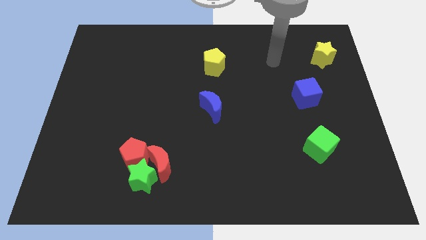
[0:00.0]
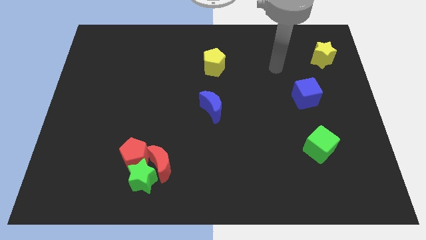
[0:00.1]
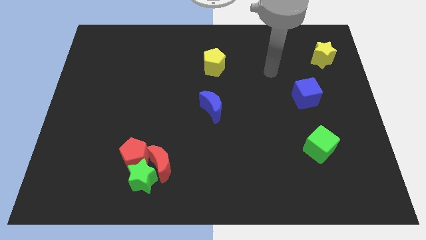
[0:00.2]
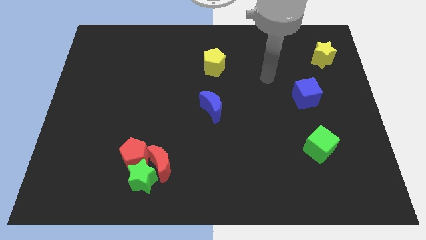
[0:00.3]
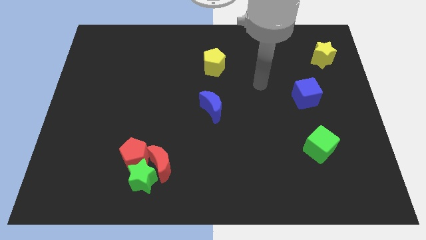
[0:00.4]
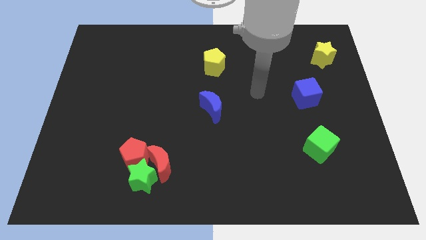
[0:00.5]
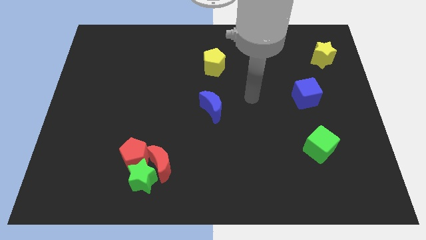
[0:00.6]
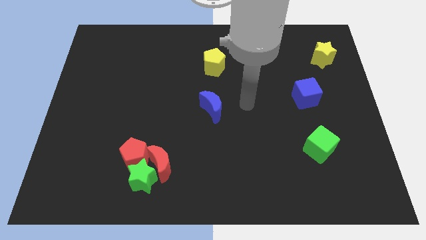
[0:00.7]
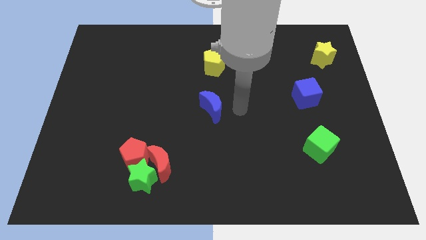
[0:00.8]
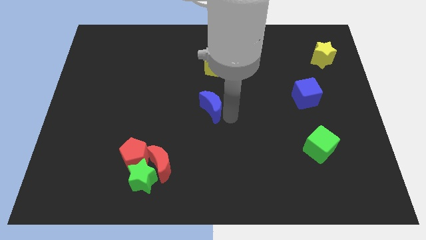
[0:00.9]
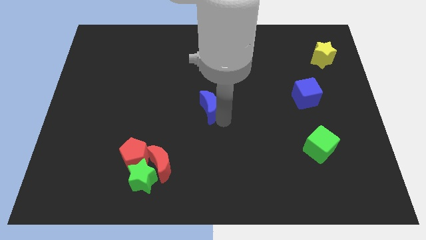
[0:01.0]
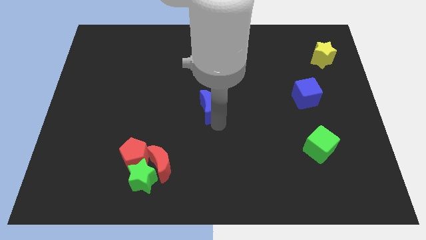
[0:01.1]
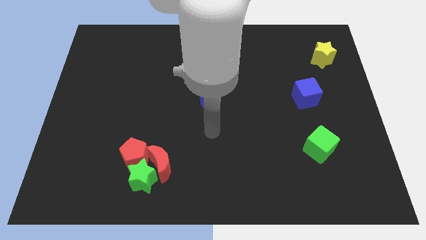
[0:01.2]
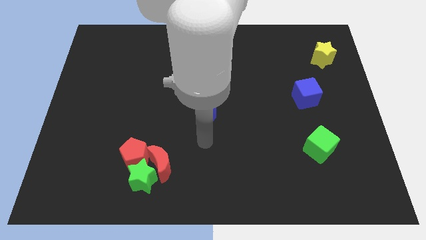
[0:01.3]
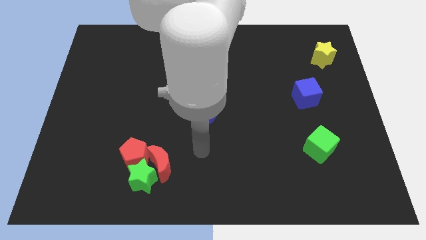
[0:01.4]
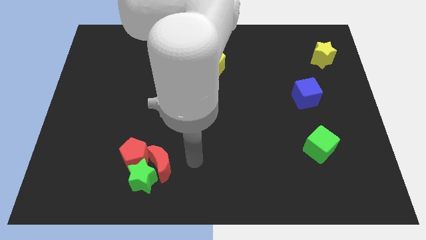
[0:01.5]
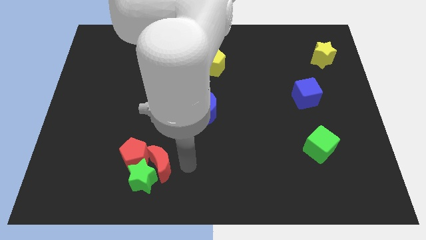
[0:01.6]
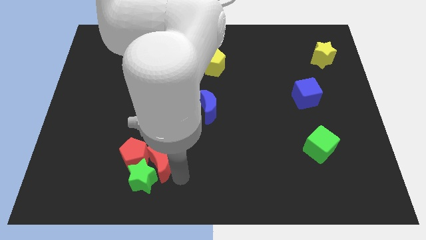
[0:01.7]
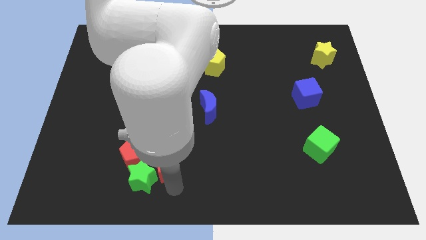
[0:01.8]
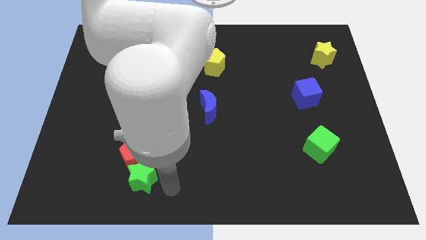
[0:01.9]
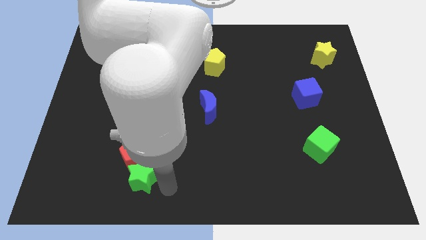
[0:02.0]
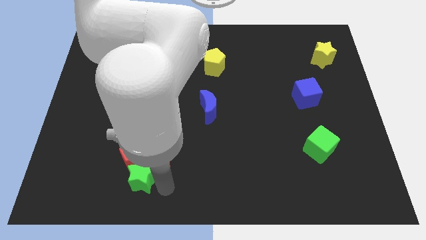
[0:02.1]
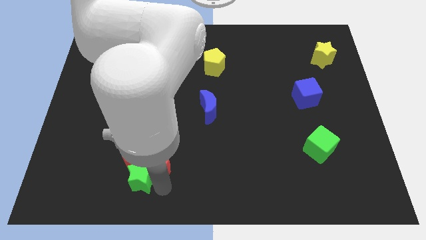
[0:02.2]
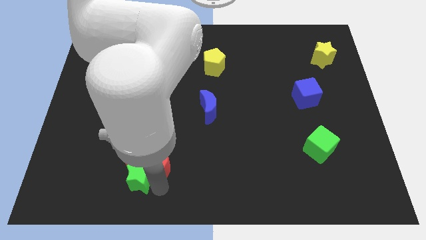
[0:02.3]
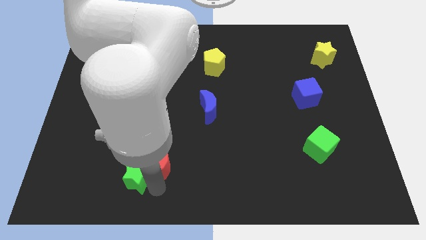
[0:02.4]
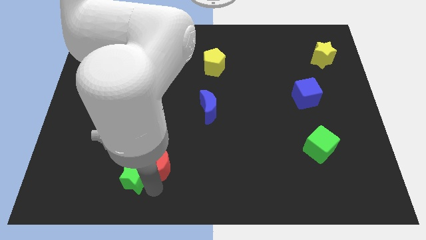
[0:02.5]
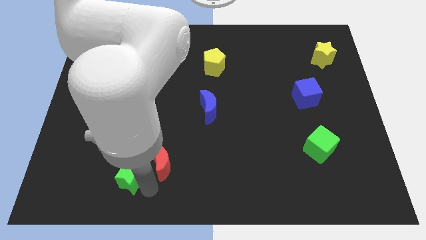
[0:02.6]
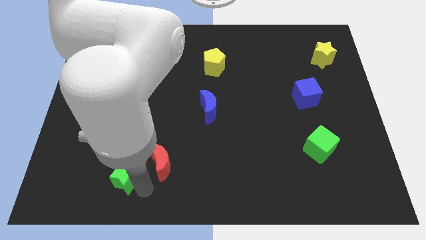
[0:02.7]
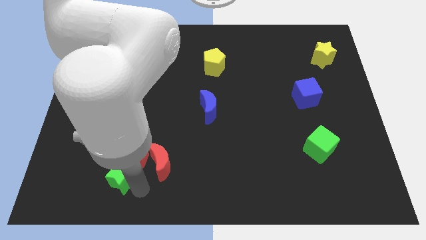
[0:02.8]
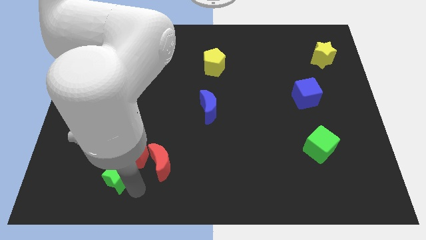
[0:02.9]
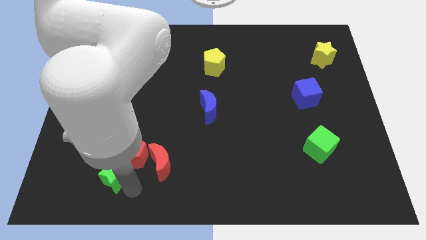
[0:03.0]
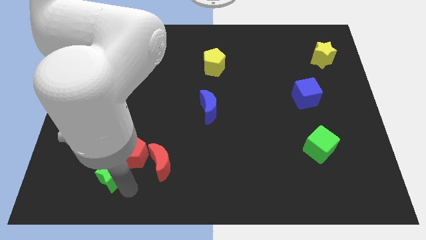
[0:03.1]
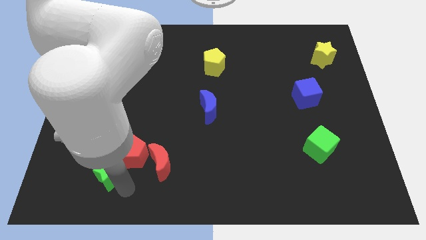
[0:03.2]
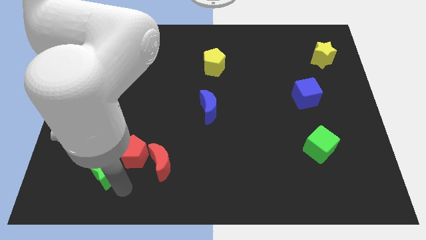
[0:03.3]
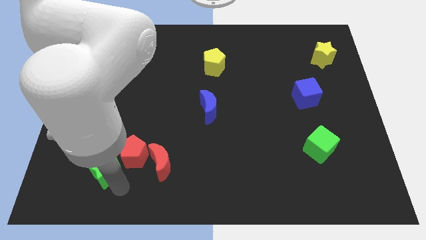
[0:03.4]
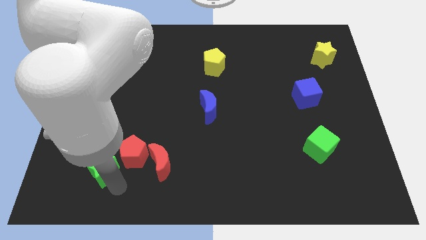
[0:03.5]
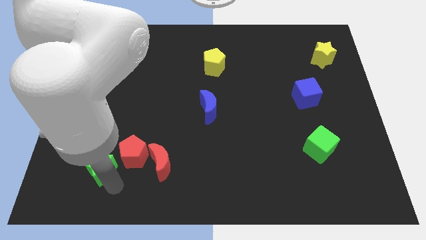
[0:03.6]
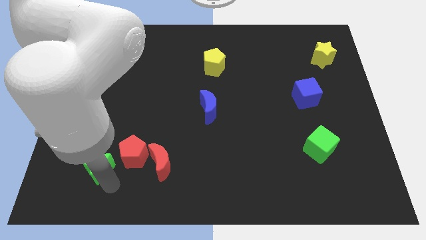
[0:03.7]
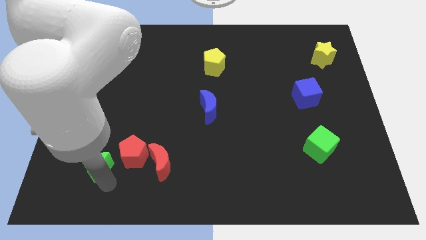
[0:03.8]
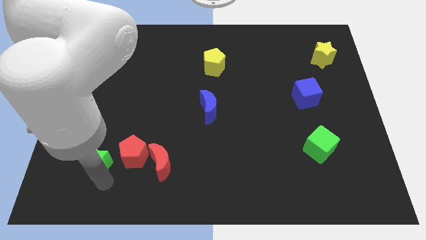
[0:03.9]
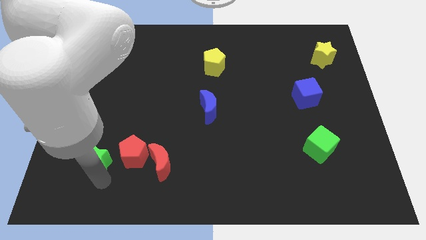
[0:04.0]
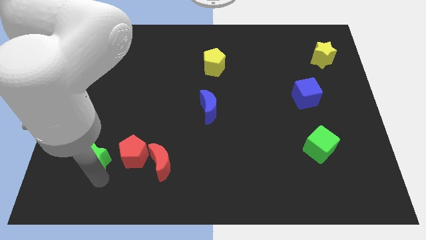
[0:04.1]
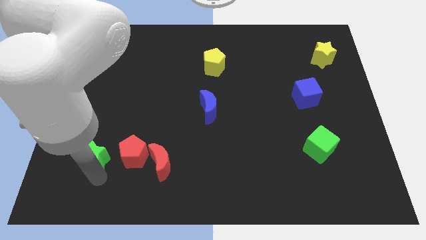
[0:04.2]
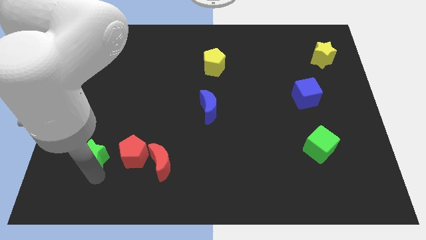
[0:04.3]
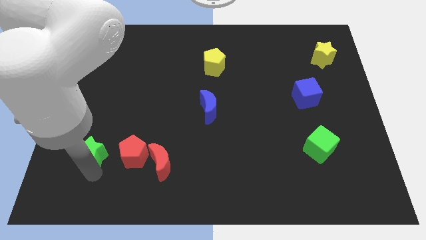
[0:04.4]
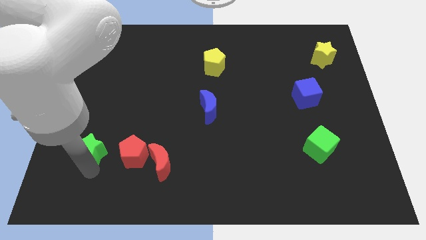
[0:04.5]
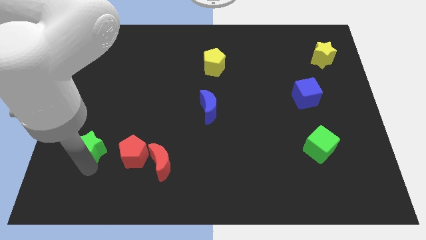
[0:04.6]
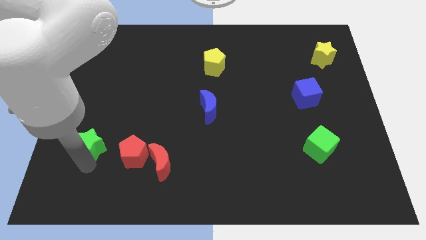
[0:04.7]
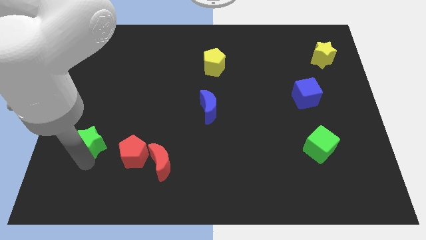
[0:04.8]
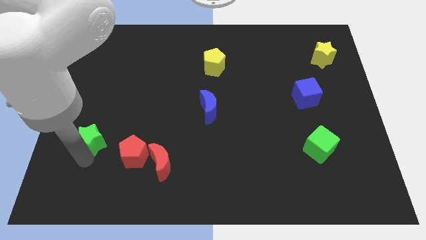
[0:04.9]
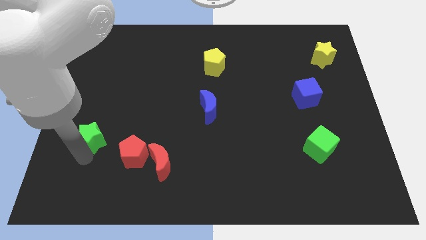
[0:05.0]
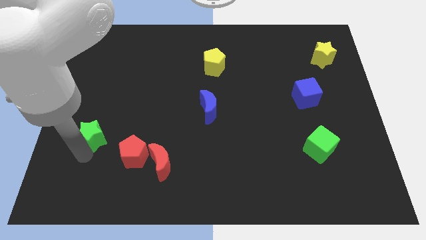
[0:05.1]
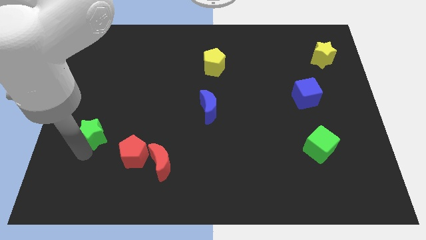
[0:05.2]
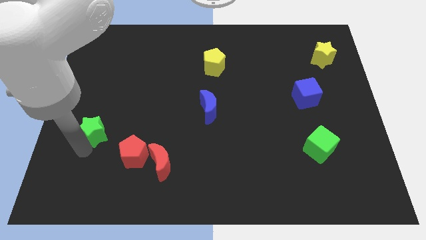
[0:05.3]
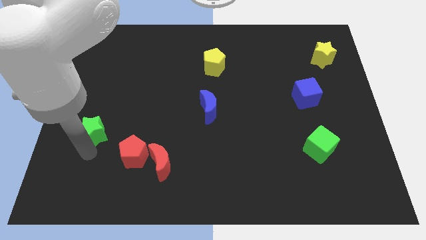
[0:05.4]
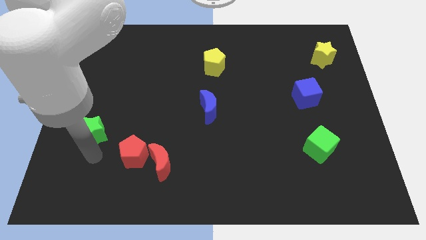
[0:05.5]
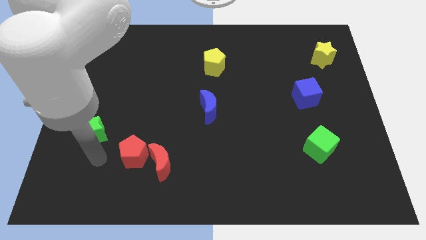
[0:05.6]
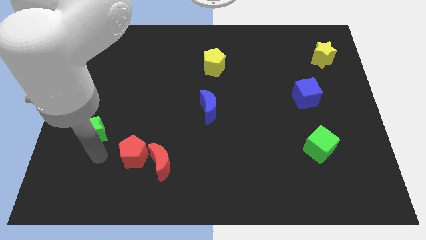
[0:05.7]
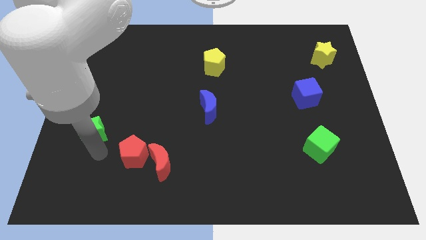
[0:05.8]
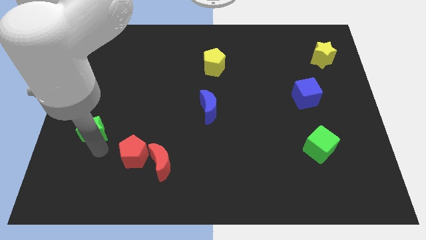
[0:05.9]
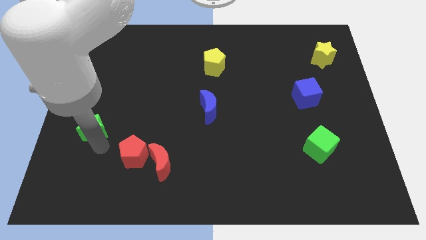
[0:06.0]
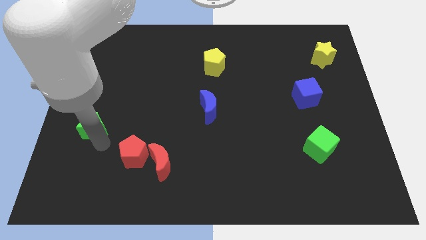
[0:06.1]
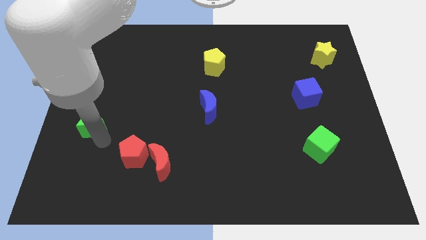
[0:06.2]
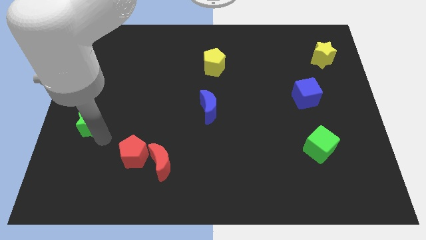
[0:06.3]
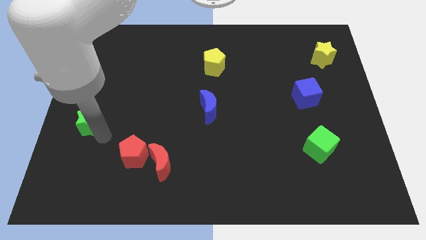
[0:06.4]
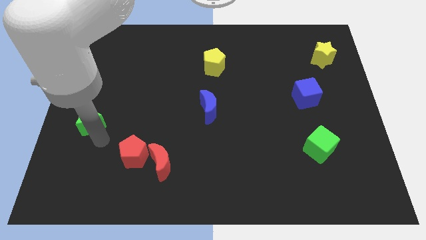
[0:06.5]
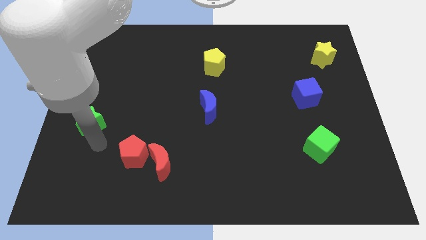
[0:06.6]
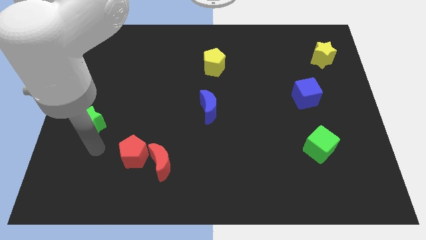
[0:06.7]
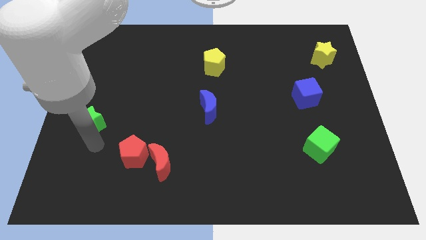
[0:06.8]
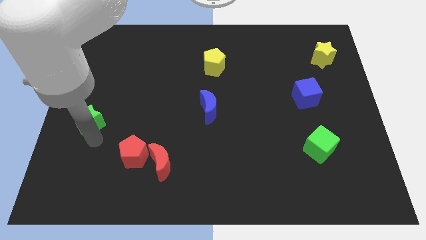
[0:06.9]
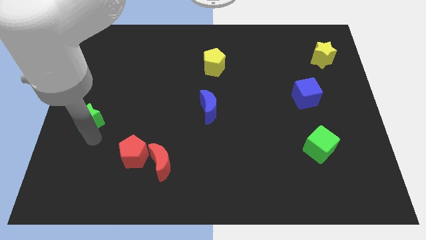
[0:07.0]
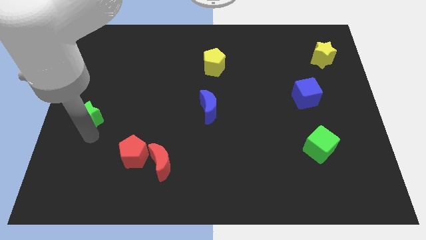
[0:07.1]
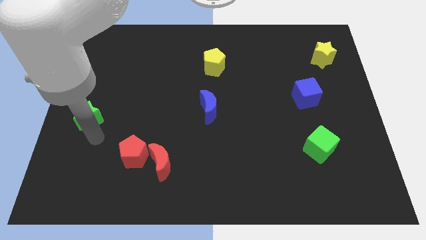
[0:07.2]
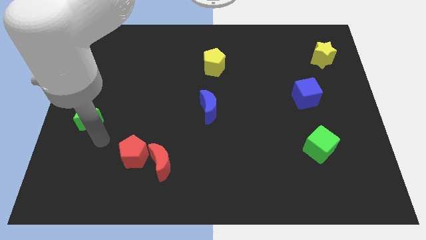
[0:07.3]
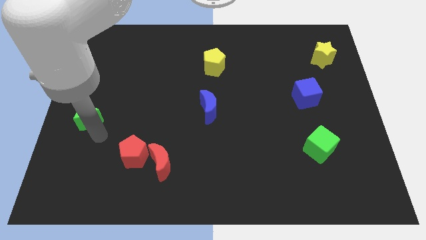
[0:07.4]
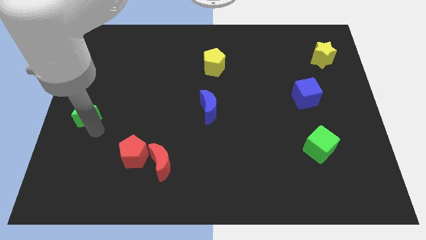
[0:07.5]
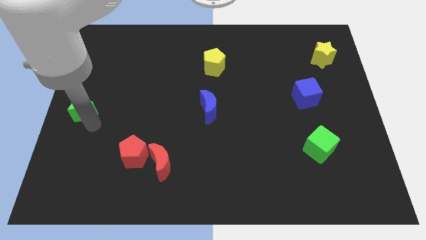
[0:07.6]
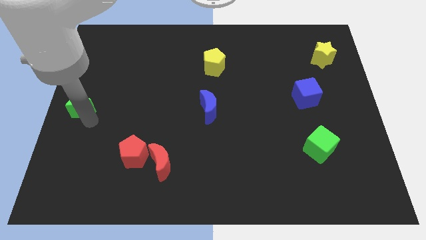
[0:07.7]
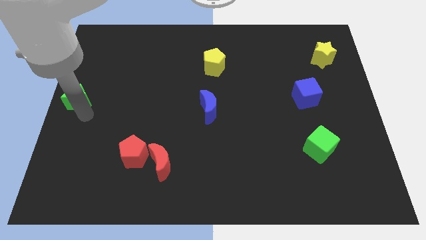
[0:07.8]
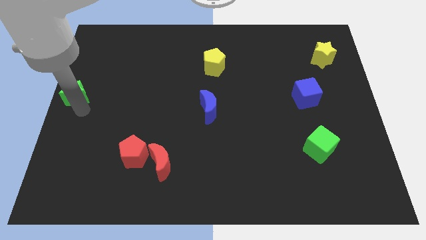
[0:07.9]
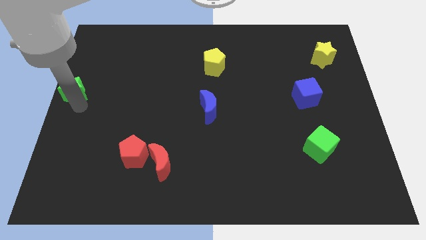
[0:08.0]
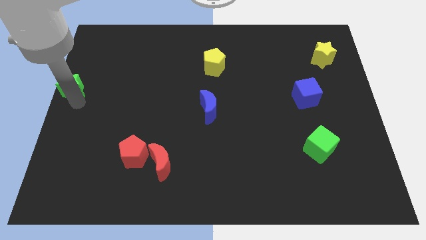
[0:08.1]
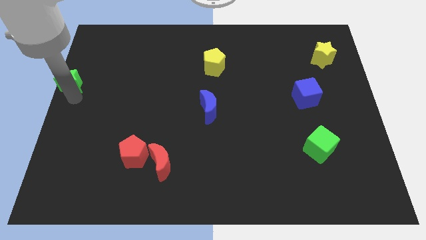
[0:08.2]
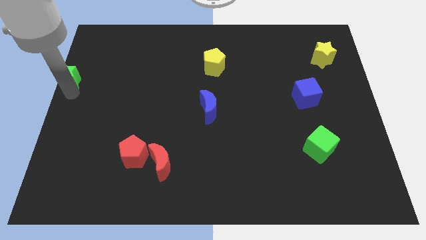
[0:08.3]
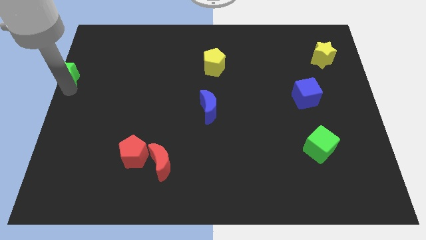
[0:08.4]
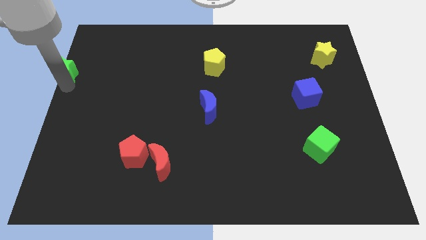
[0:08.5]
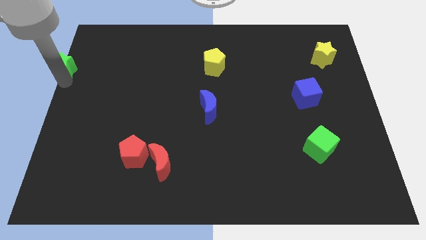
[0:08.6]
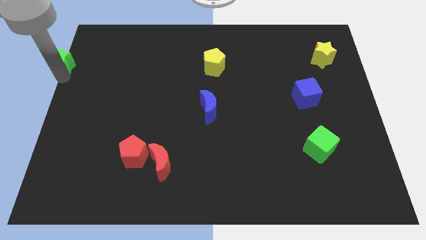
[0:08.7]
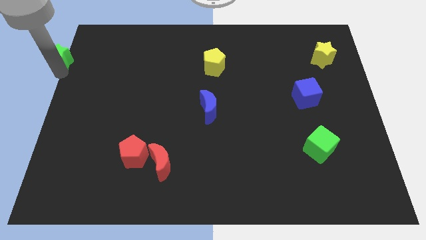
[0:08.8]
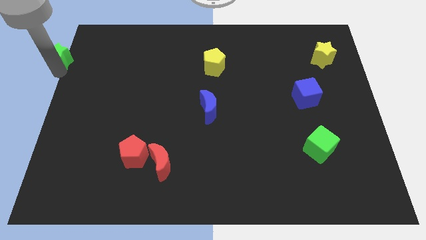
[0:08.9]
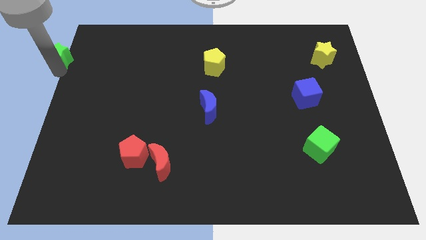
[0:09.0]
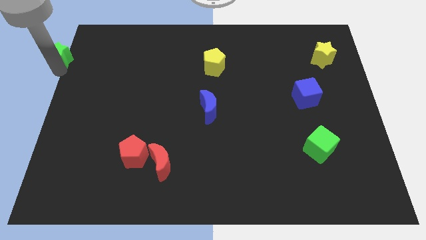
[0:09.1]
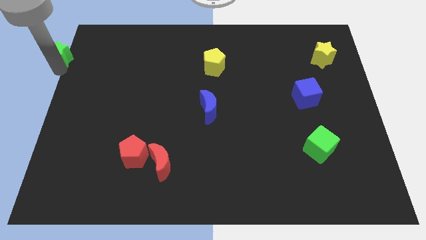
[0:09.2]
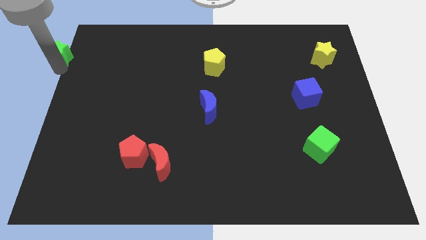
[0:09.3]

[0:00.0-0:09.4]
push the green star to the top left corner
